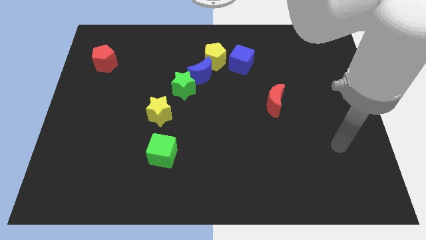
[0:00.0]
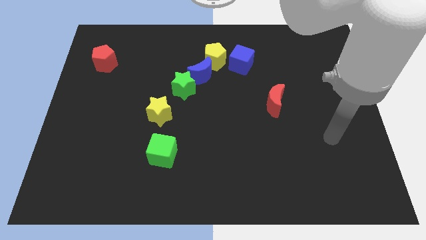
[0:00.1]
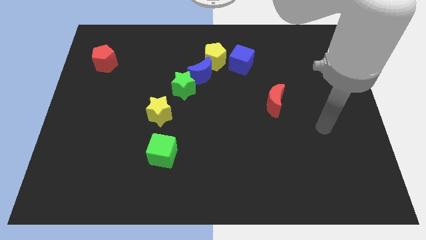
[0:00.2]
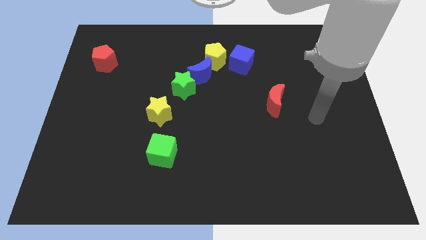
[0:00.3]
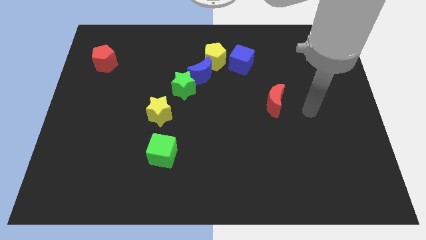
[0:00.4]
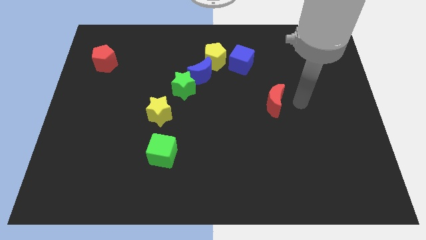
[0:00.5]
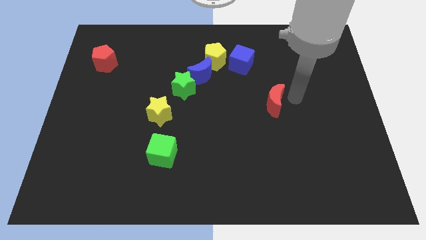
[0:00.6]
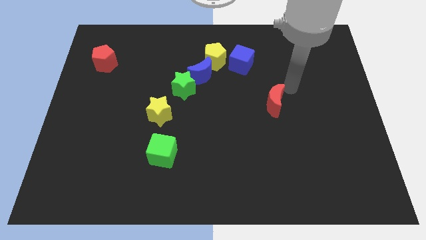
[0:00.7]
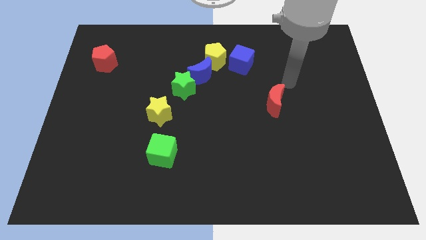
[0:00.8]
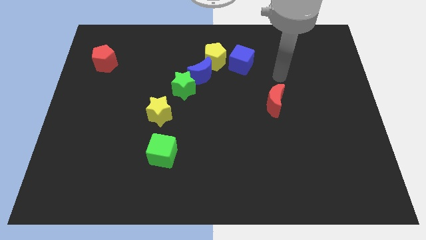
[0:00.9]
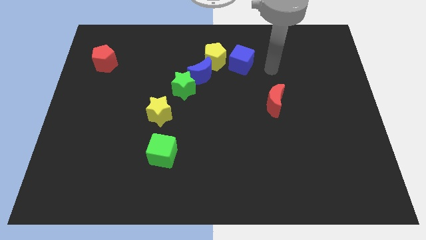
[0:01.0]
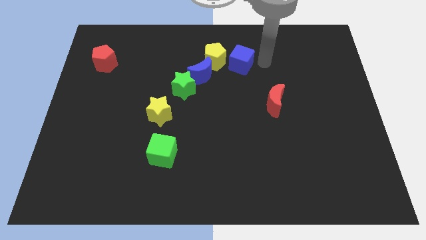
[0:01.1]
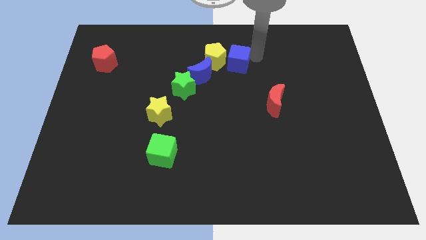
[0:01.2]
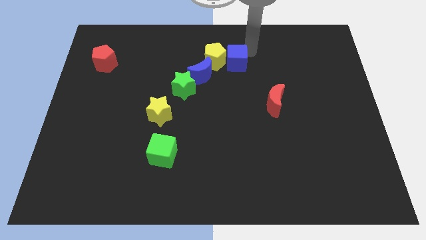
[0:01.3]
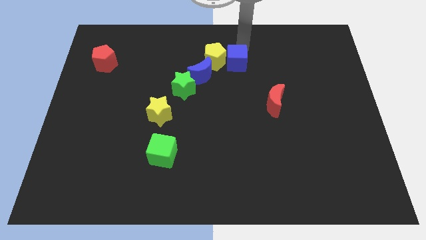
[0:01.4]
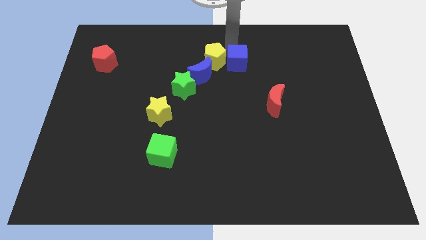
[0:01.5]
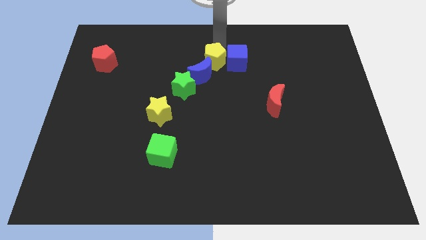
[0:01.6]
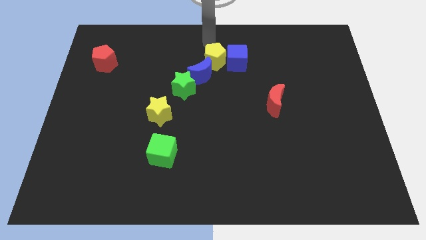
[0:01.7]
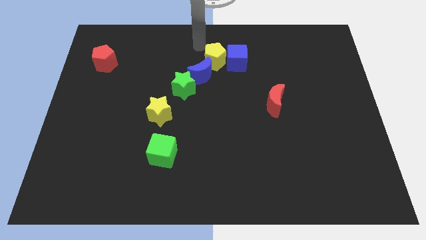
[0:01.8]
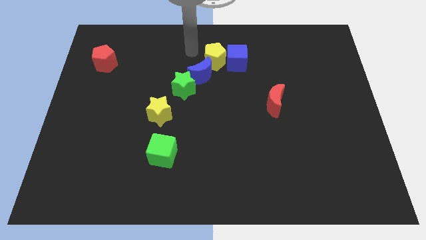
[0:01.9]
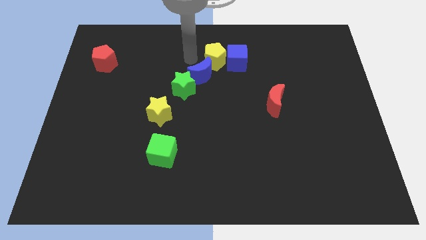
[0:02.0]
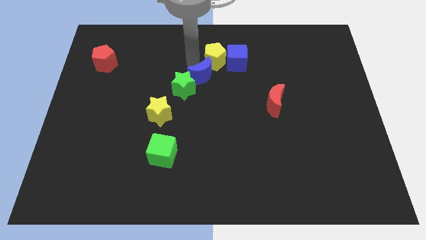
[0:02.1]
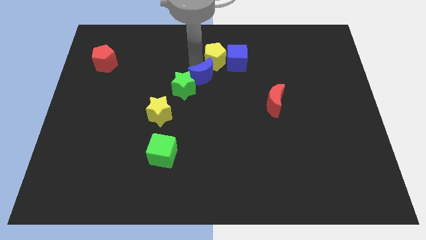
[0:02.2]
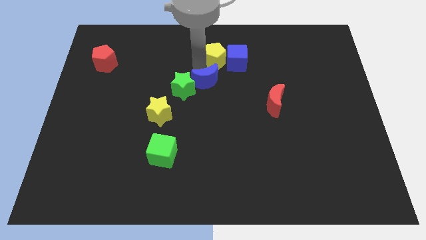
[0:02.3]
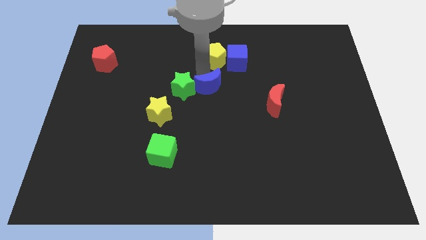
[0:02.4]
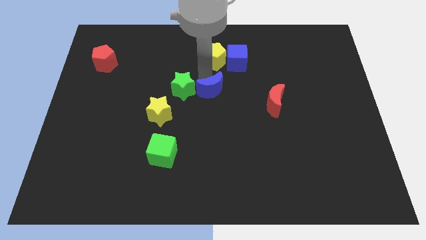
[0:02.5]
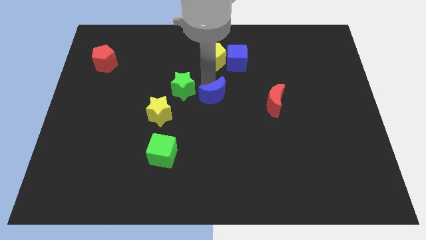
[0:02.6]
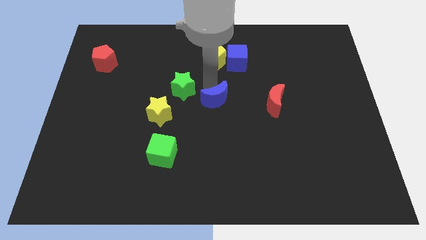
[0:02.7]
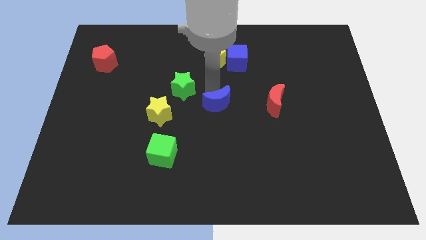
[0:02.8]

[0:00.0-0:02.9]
separate the blue moon from the green star and yellow pentagon

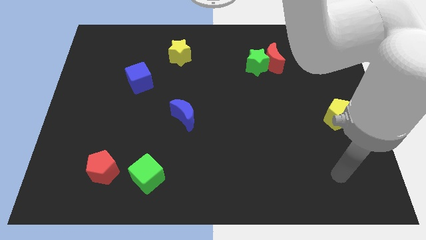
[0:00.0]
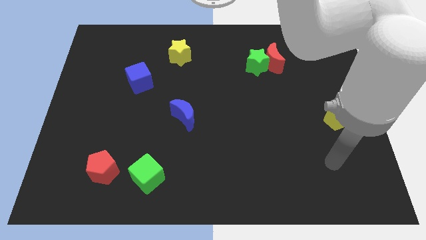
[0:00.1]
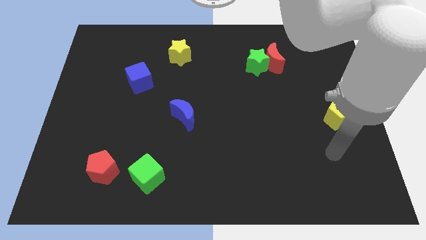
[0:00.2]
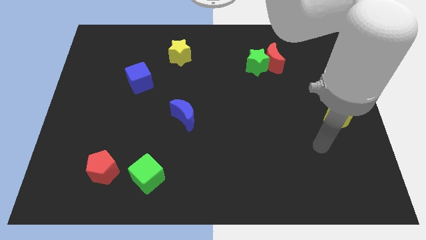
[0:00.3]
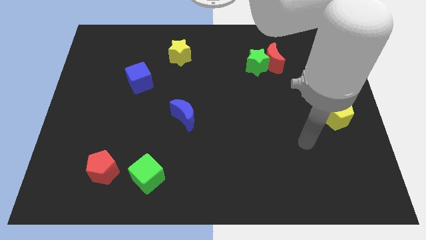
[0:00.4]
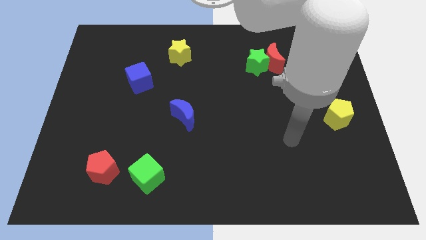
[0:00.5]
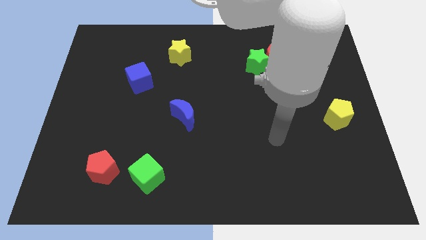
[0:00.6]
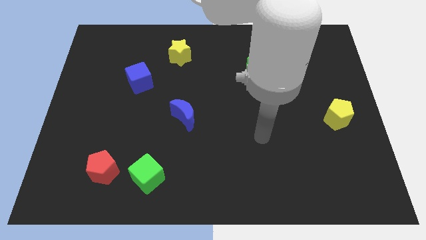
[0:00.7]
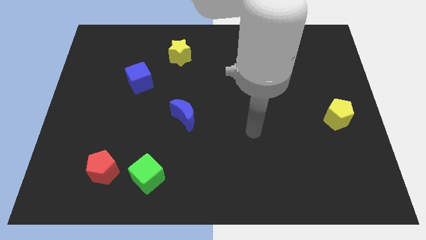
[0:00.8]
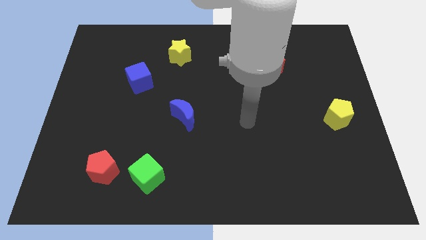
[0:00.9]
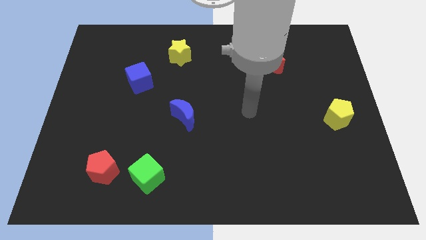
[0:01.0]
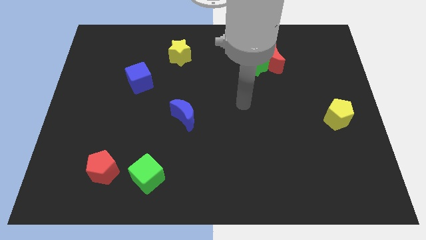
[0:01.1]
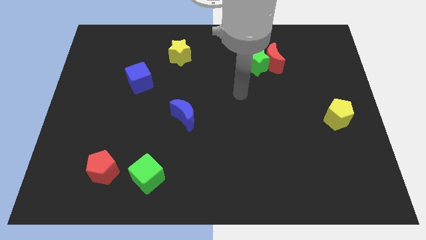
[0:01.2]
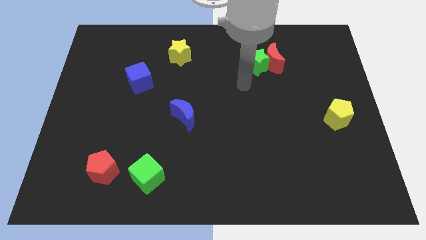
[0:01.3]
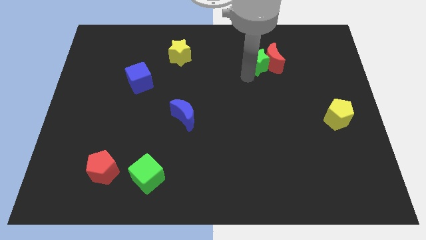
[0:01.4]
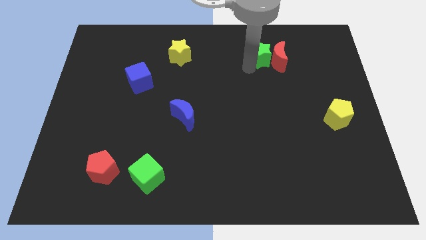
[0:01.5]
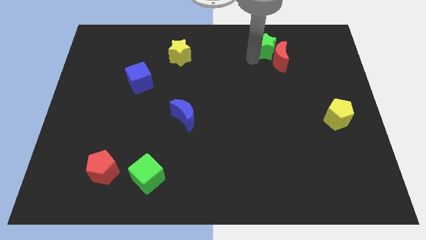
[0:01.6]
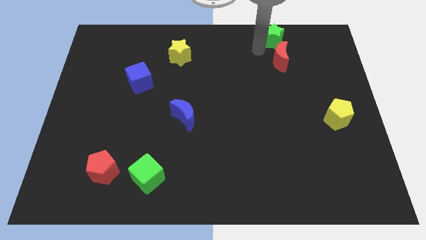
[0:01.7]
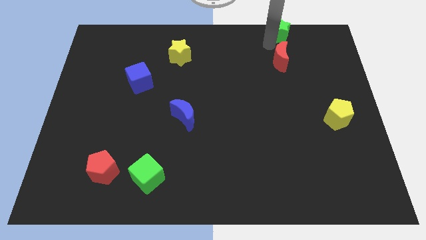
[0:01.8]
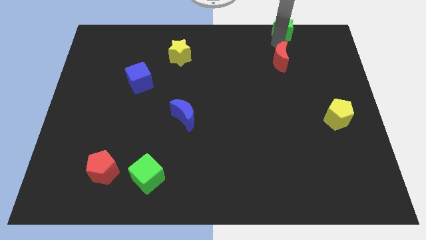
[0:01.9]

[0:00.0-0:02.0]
separate the red moon from the green star

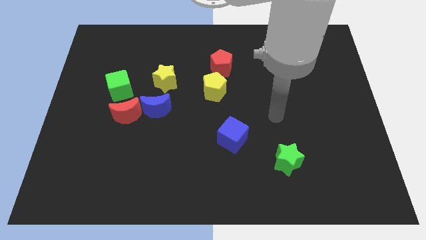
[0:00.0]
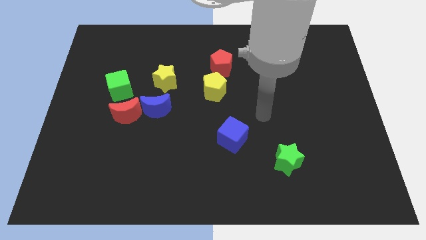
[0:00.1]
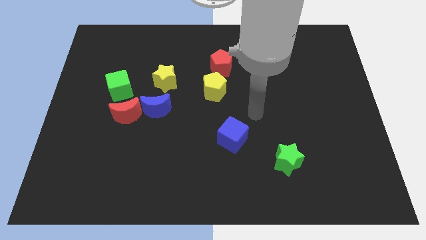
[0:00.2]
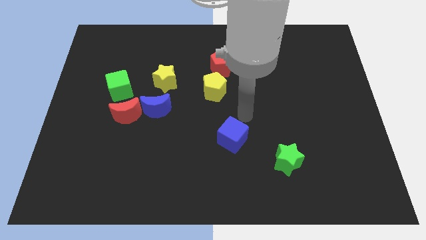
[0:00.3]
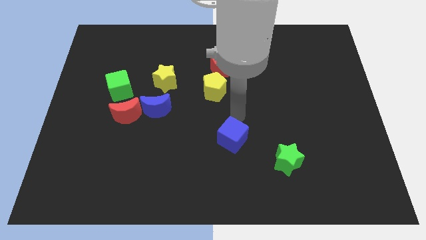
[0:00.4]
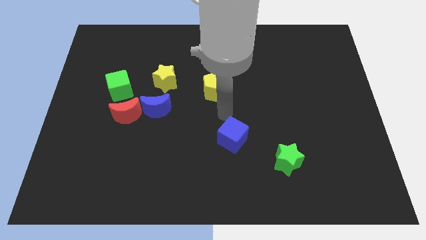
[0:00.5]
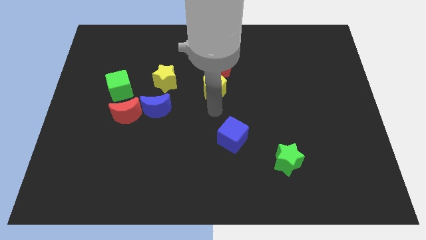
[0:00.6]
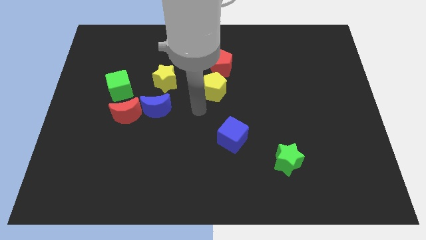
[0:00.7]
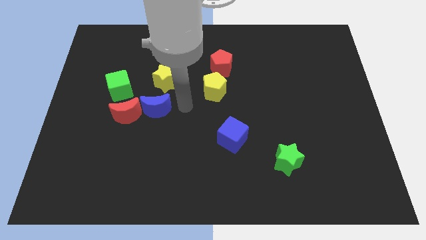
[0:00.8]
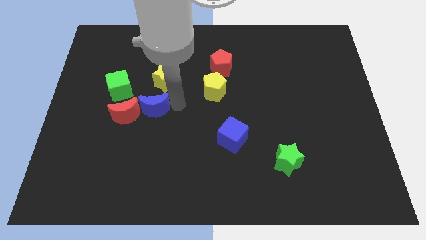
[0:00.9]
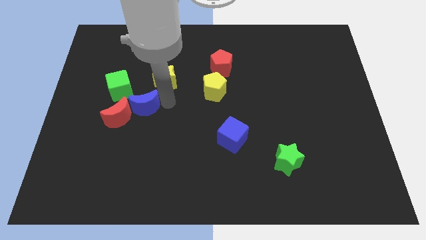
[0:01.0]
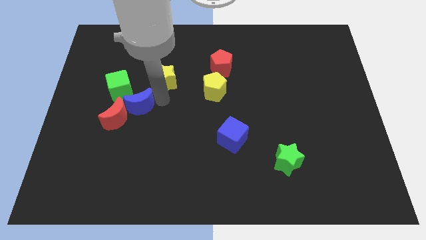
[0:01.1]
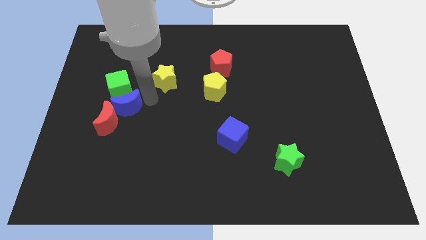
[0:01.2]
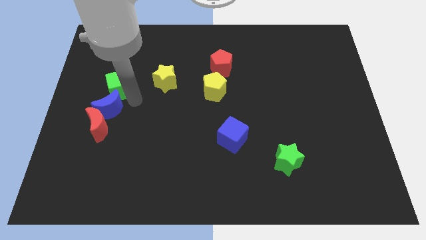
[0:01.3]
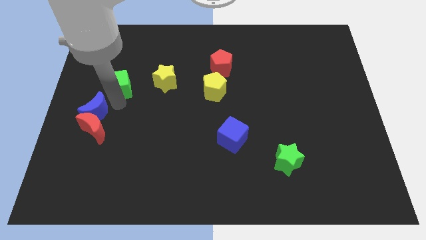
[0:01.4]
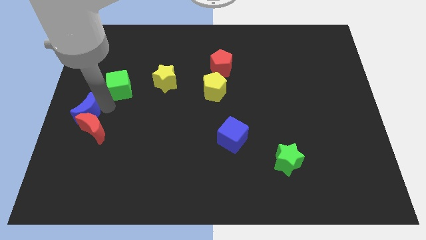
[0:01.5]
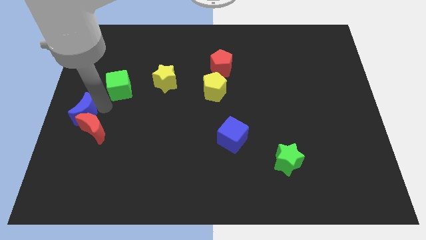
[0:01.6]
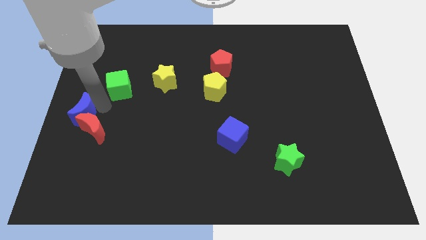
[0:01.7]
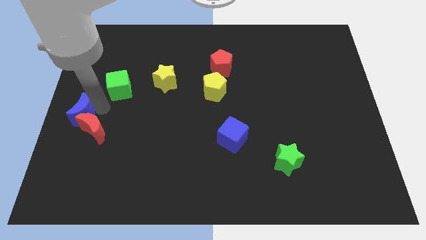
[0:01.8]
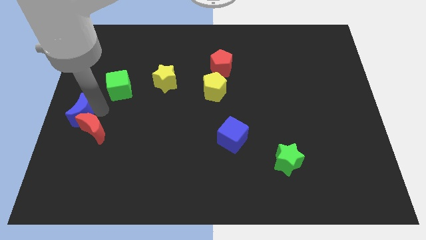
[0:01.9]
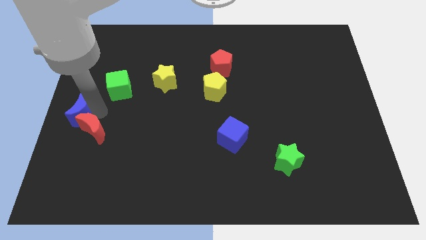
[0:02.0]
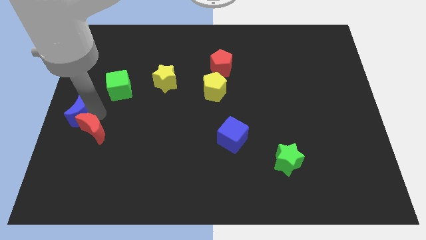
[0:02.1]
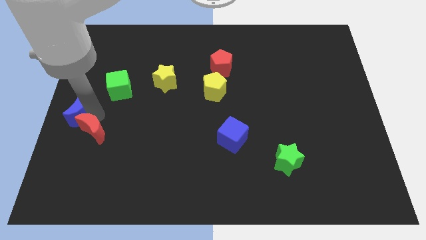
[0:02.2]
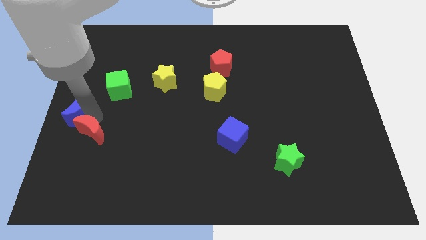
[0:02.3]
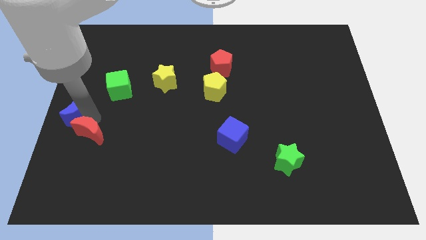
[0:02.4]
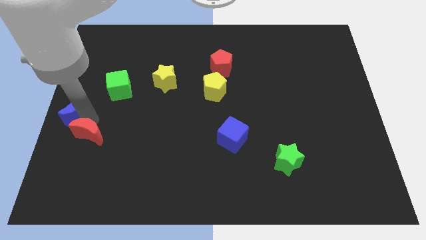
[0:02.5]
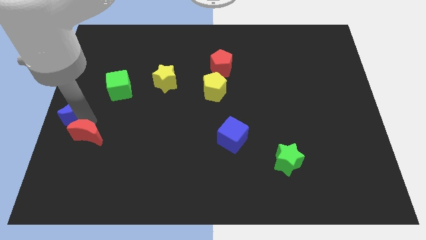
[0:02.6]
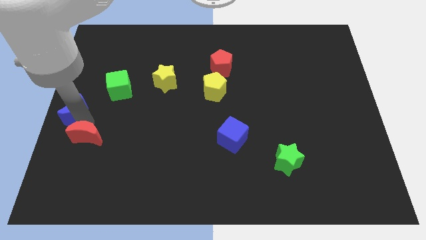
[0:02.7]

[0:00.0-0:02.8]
separate the red moon from the blue moon and green cube

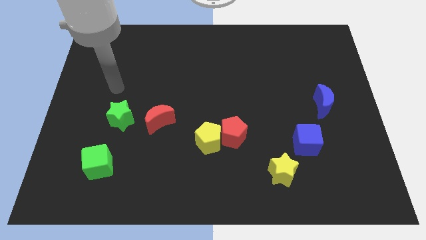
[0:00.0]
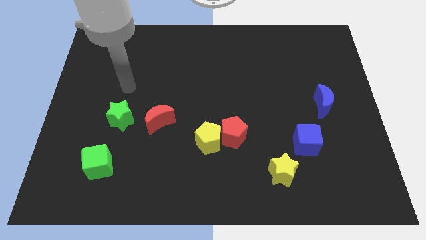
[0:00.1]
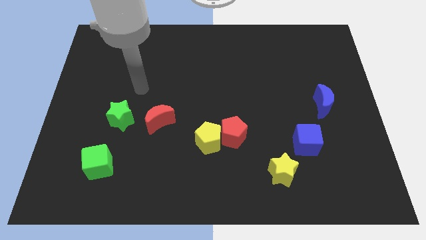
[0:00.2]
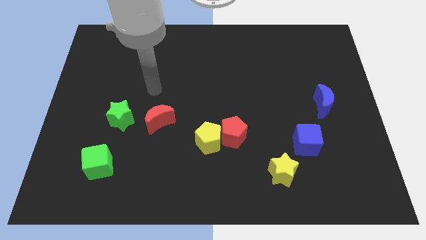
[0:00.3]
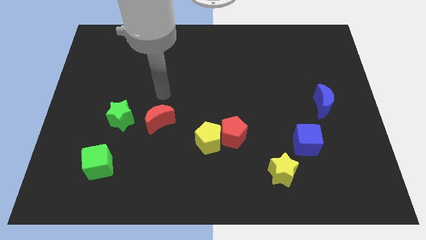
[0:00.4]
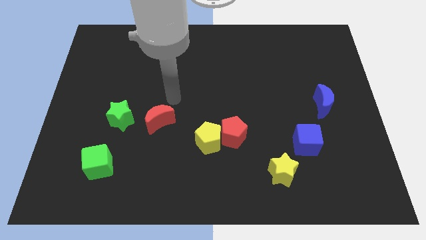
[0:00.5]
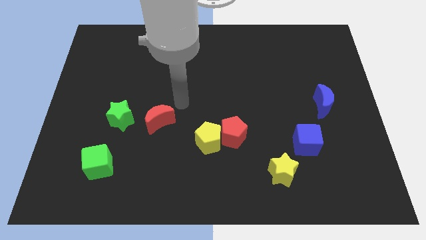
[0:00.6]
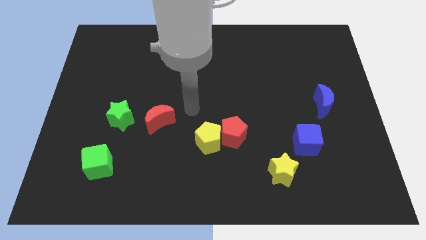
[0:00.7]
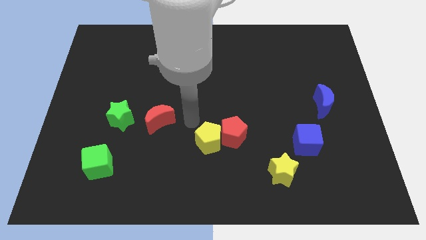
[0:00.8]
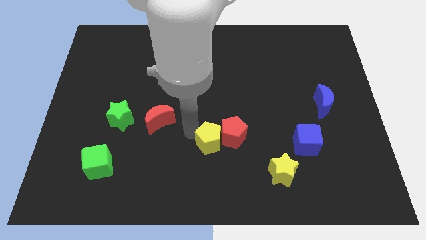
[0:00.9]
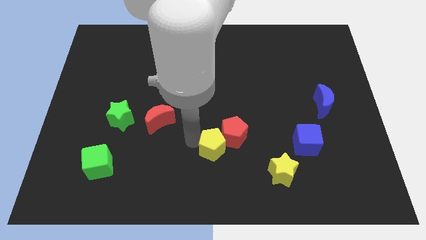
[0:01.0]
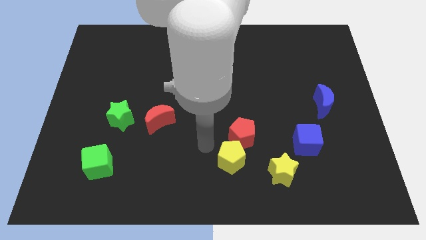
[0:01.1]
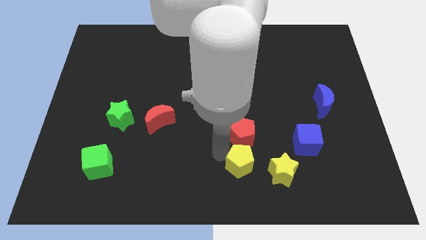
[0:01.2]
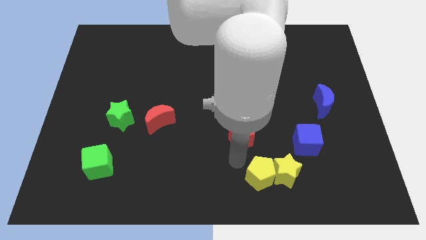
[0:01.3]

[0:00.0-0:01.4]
pull the red pentagon apart from the yellow pentagon

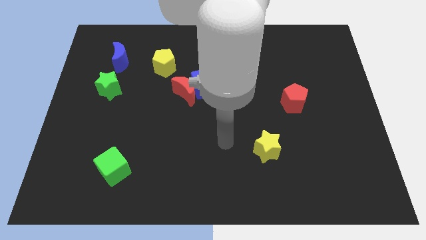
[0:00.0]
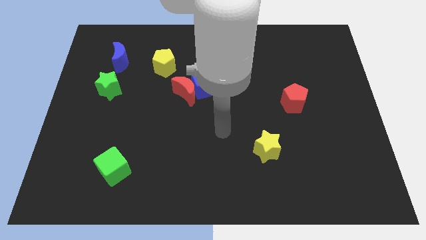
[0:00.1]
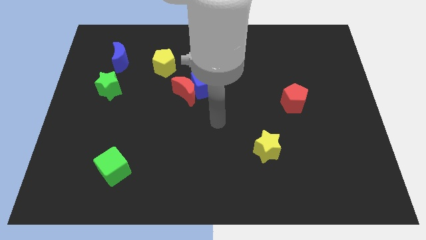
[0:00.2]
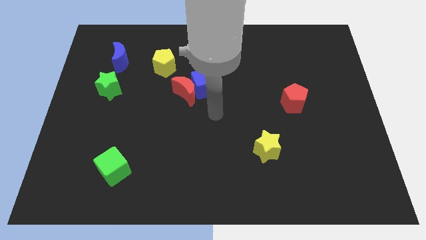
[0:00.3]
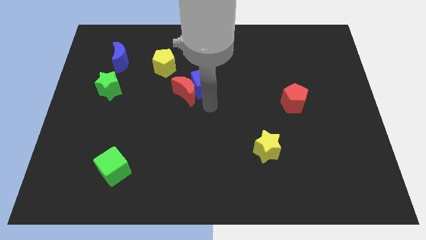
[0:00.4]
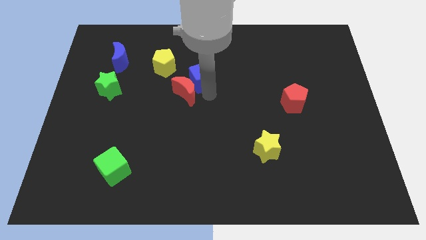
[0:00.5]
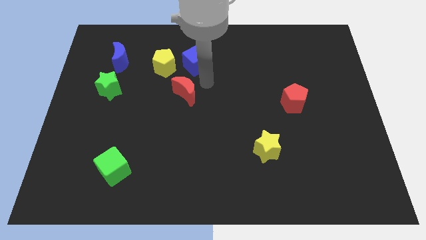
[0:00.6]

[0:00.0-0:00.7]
separate the red moon from the blue cube
